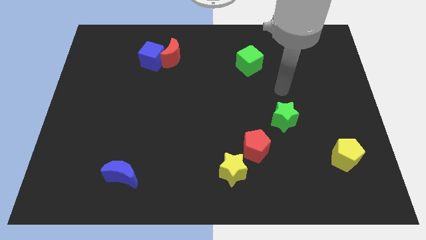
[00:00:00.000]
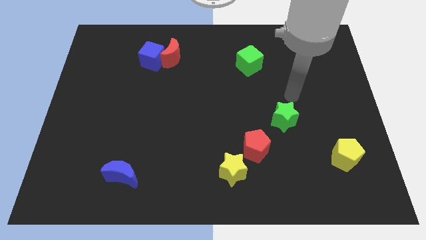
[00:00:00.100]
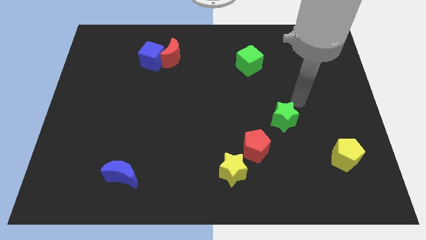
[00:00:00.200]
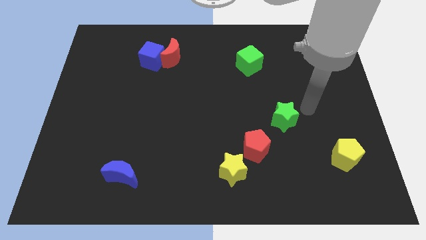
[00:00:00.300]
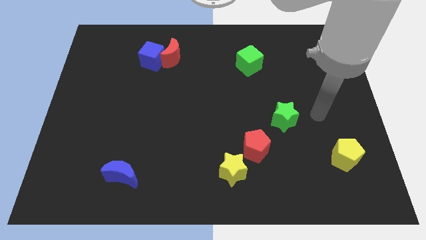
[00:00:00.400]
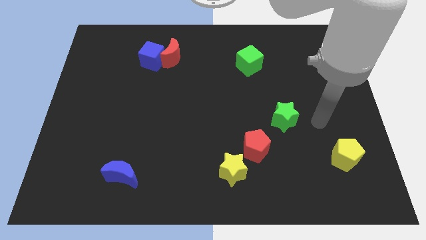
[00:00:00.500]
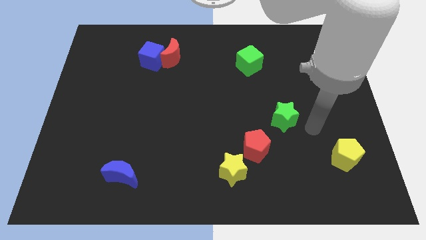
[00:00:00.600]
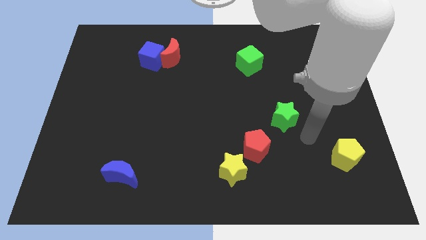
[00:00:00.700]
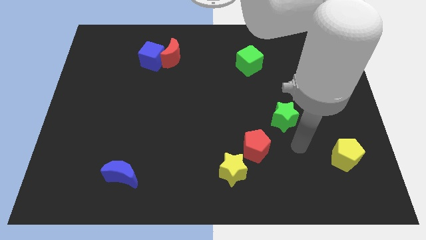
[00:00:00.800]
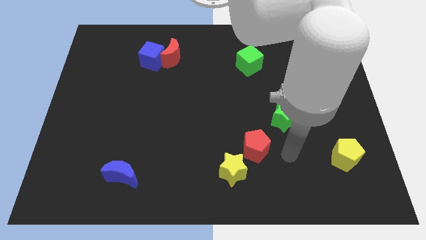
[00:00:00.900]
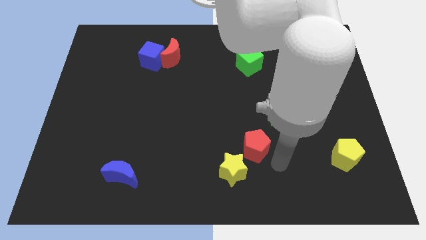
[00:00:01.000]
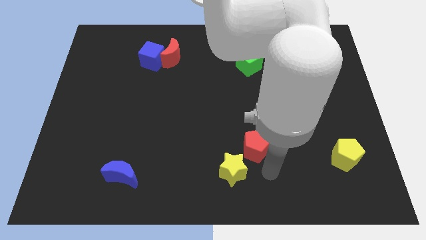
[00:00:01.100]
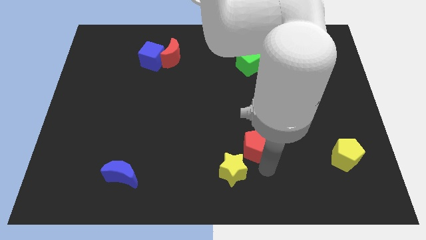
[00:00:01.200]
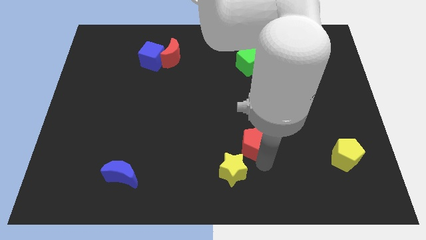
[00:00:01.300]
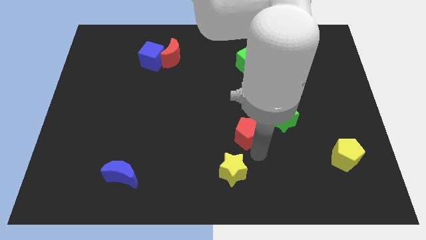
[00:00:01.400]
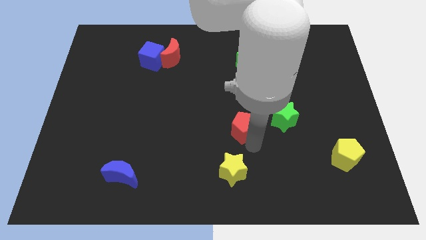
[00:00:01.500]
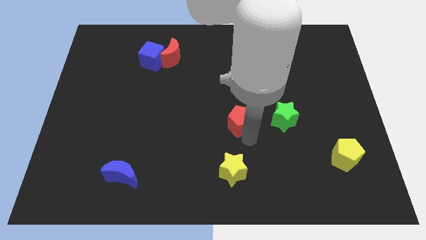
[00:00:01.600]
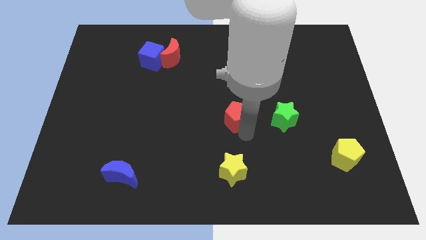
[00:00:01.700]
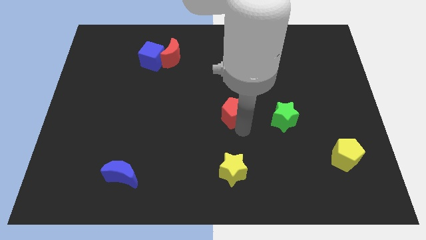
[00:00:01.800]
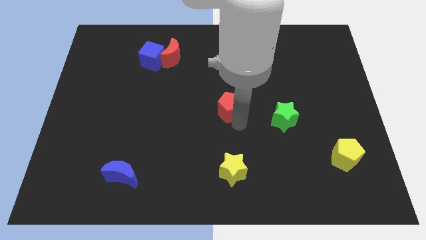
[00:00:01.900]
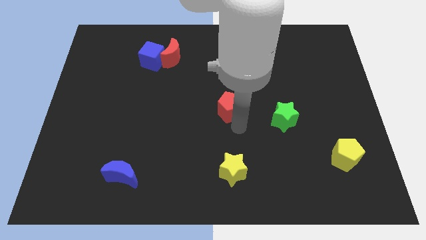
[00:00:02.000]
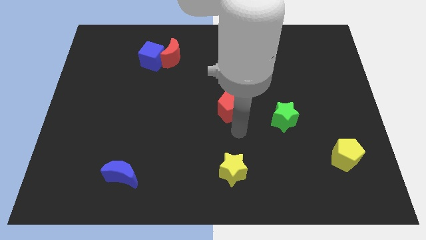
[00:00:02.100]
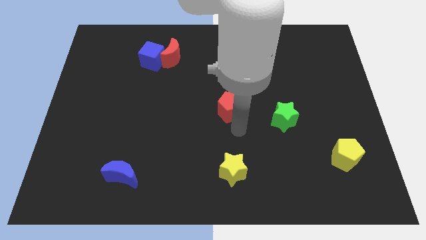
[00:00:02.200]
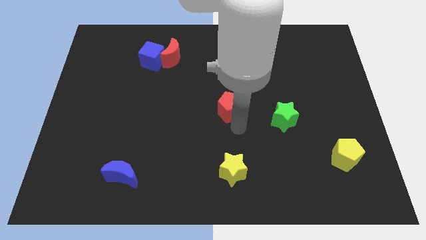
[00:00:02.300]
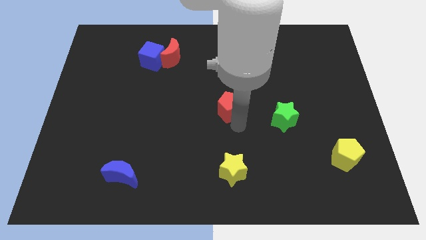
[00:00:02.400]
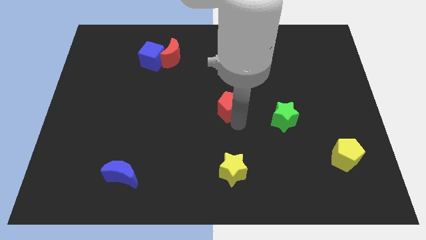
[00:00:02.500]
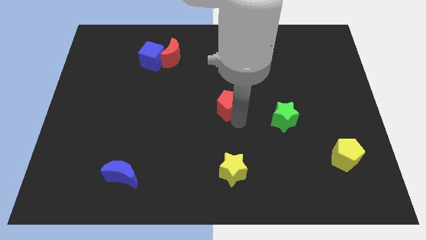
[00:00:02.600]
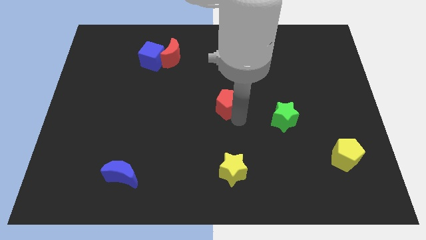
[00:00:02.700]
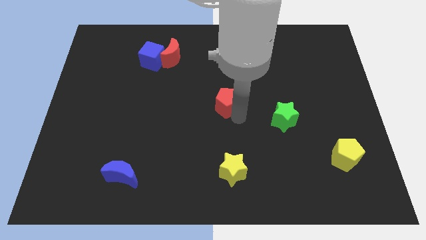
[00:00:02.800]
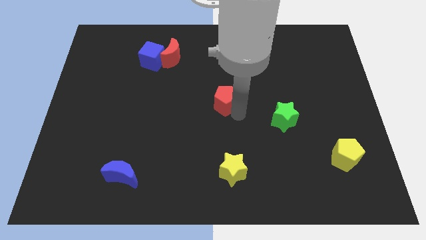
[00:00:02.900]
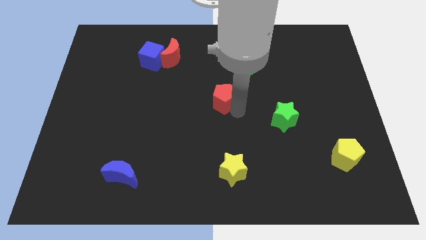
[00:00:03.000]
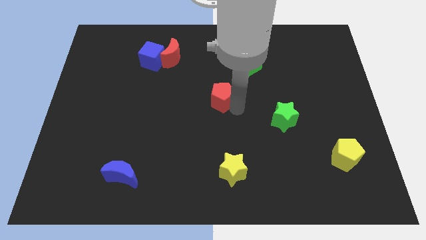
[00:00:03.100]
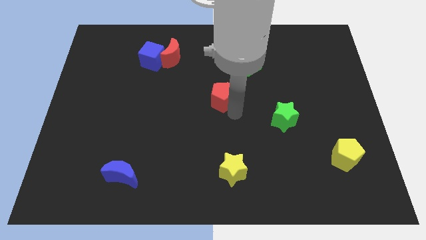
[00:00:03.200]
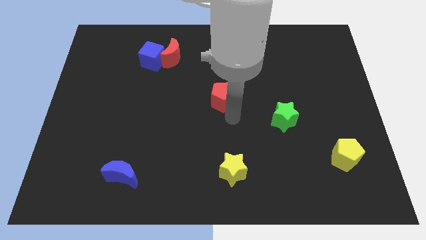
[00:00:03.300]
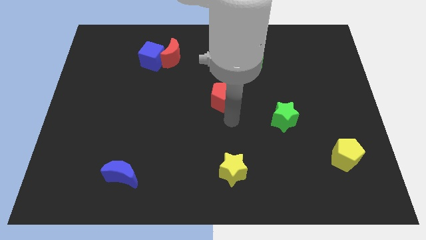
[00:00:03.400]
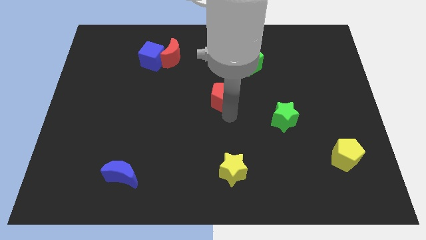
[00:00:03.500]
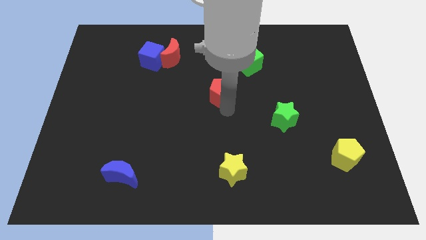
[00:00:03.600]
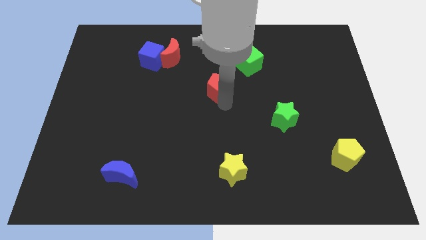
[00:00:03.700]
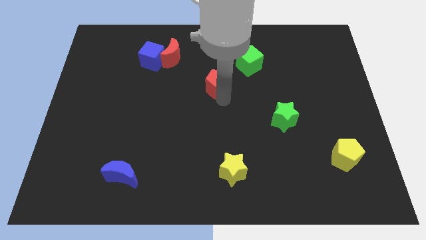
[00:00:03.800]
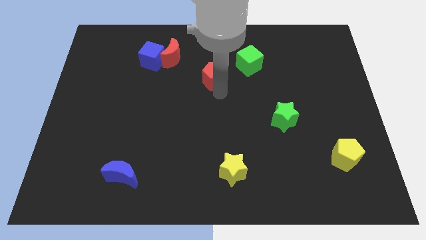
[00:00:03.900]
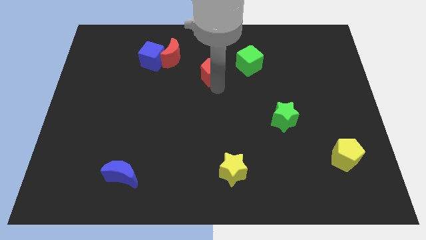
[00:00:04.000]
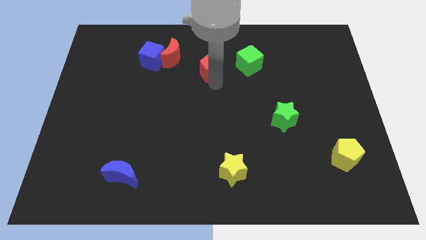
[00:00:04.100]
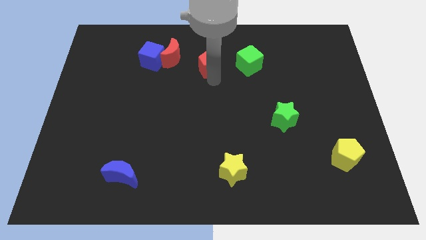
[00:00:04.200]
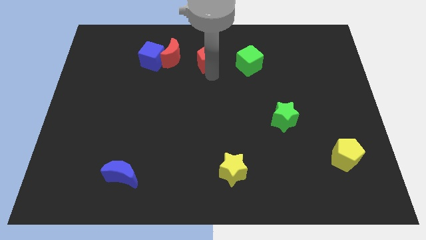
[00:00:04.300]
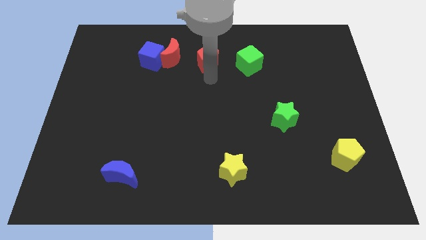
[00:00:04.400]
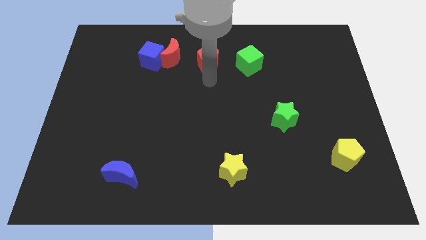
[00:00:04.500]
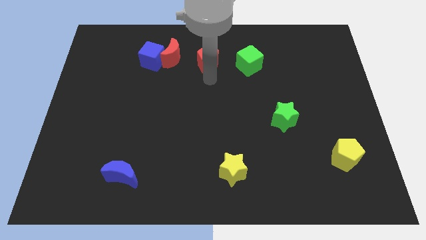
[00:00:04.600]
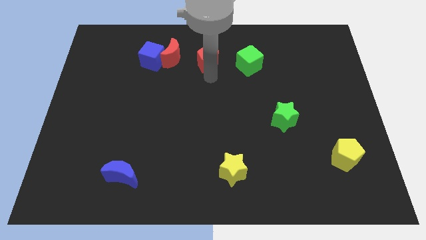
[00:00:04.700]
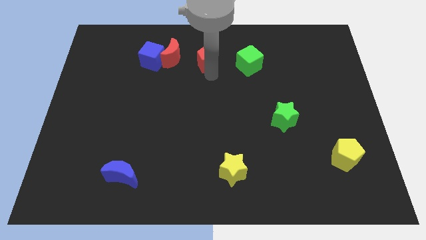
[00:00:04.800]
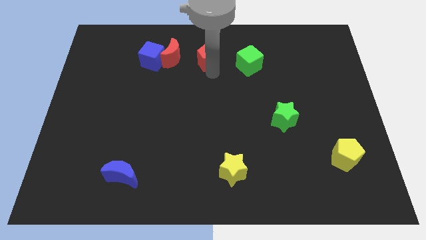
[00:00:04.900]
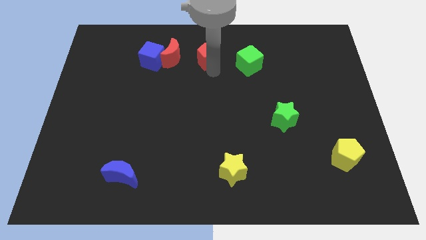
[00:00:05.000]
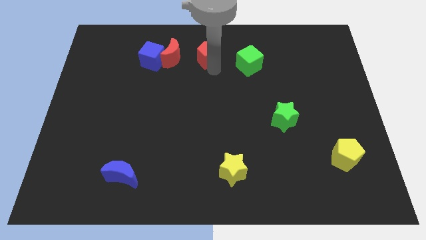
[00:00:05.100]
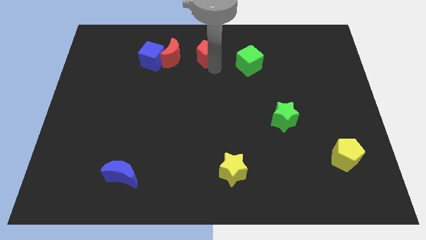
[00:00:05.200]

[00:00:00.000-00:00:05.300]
move the red pentagon to the towards your base

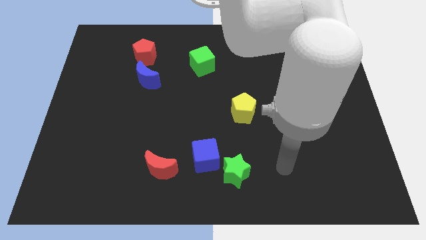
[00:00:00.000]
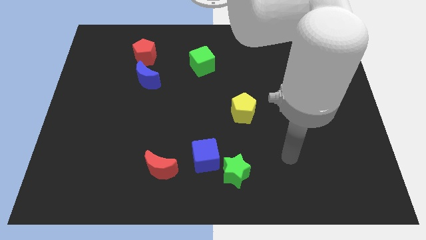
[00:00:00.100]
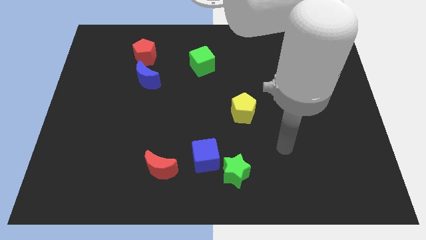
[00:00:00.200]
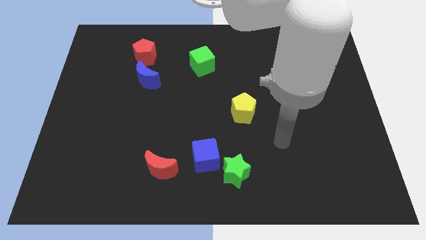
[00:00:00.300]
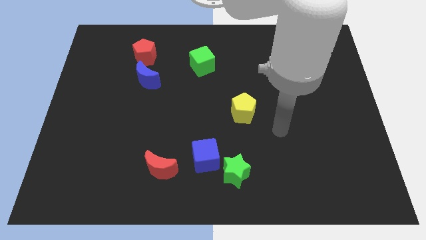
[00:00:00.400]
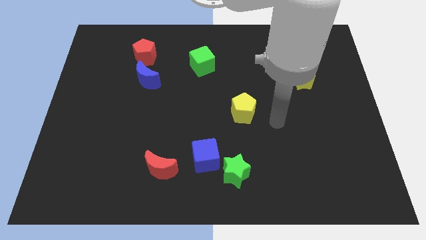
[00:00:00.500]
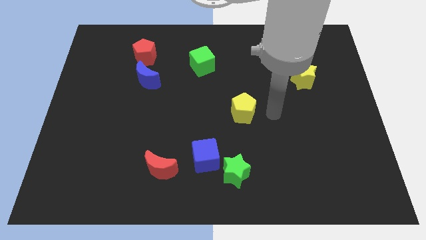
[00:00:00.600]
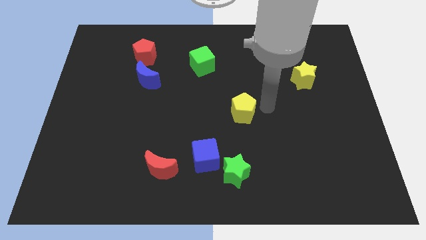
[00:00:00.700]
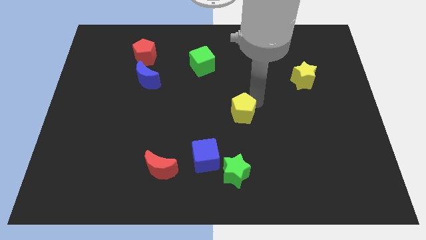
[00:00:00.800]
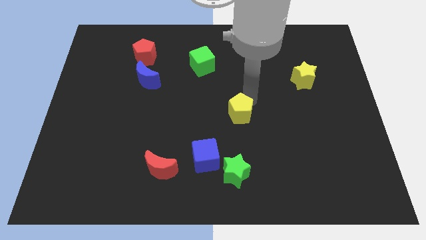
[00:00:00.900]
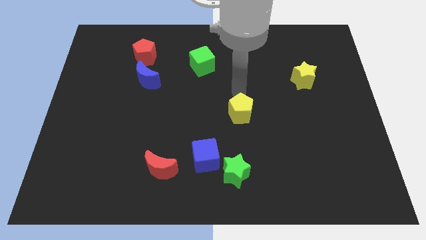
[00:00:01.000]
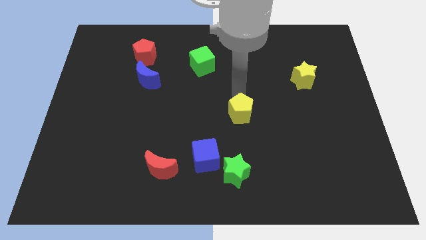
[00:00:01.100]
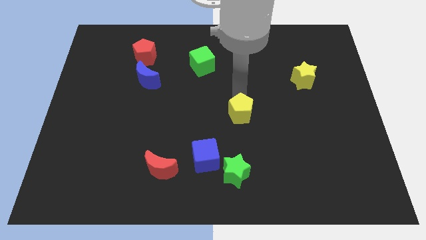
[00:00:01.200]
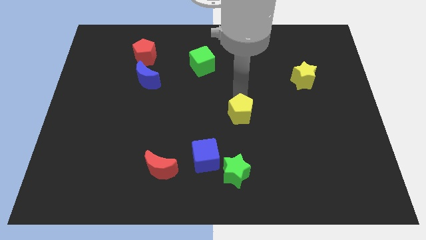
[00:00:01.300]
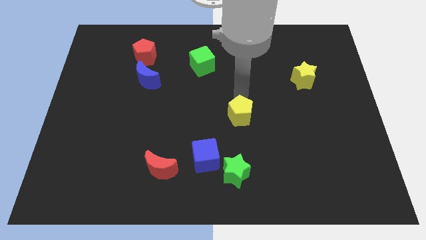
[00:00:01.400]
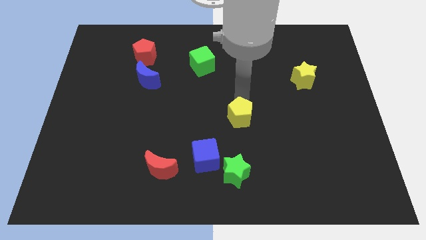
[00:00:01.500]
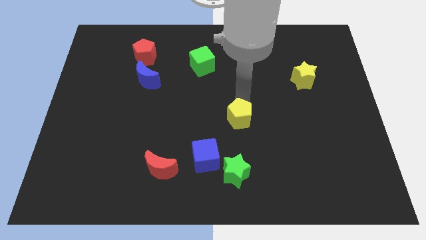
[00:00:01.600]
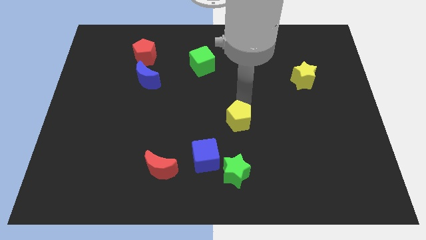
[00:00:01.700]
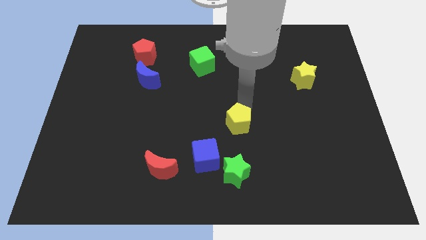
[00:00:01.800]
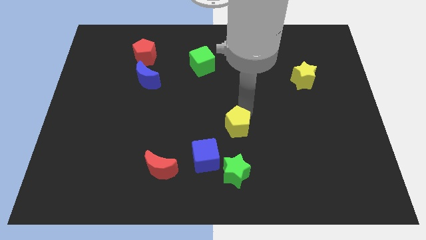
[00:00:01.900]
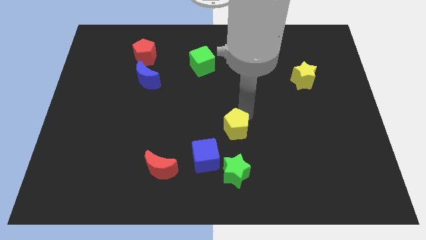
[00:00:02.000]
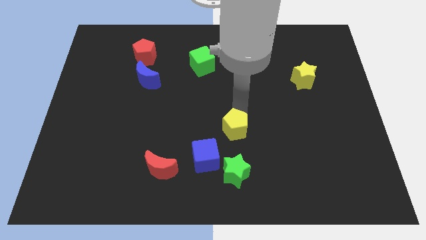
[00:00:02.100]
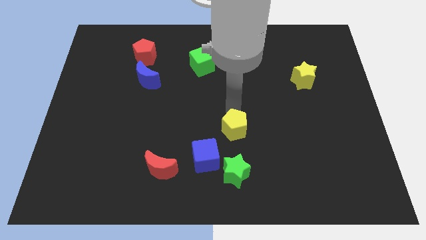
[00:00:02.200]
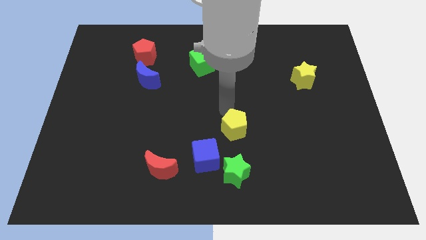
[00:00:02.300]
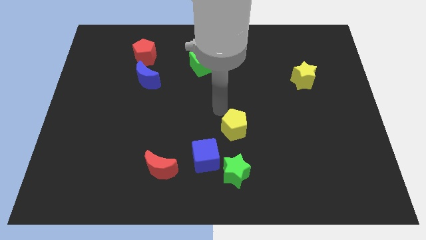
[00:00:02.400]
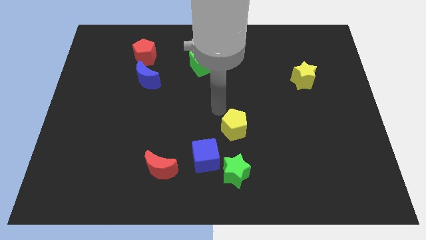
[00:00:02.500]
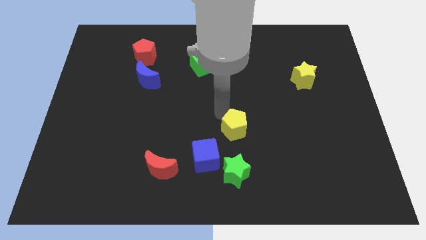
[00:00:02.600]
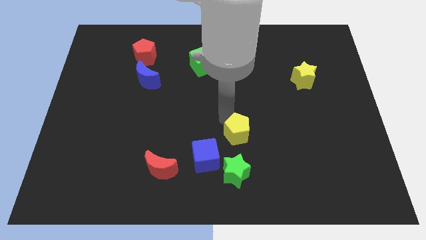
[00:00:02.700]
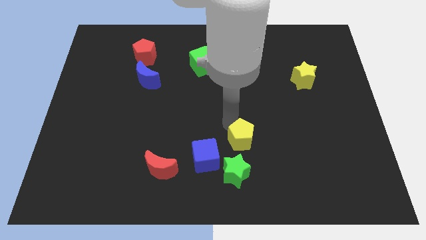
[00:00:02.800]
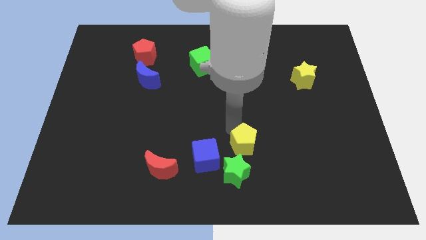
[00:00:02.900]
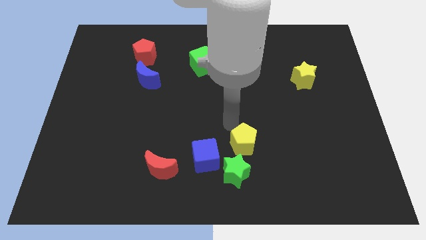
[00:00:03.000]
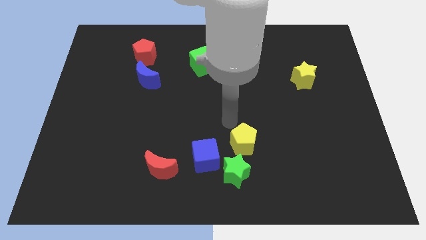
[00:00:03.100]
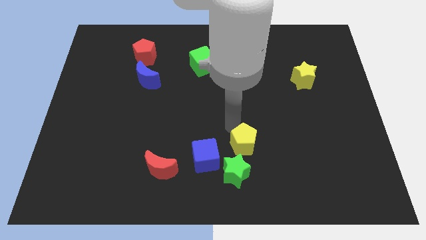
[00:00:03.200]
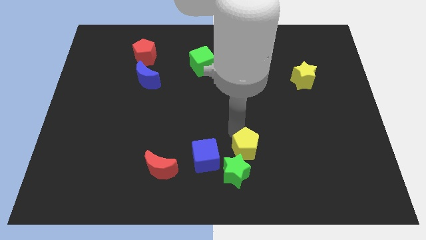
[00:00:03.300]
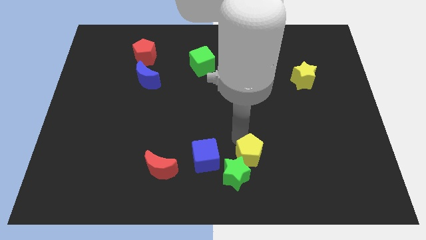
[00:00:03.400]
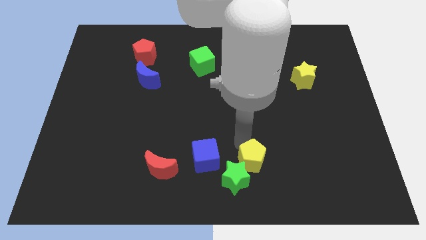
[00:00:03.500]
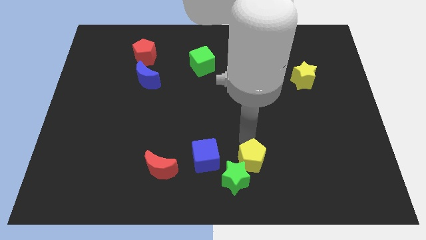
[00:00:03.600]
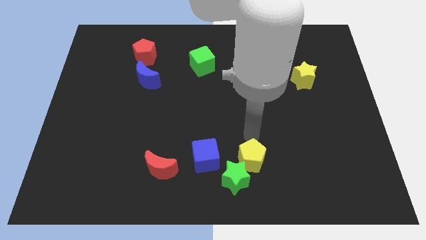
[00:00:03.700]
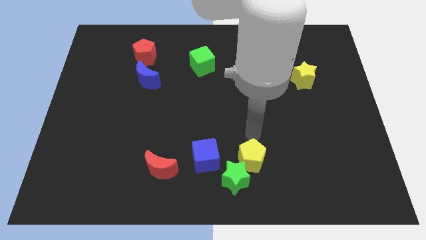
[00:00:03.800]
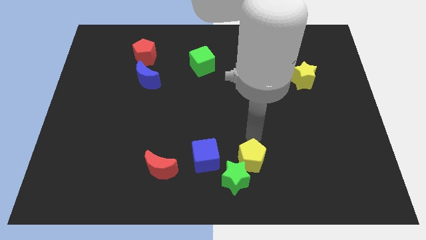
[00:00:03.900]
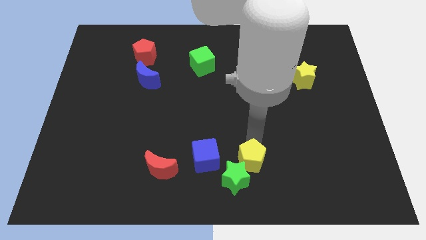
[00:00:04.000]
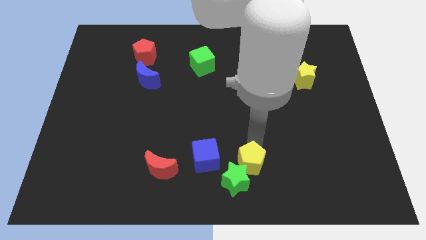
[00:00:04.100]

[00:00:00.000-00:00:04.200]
slide the yellow pentagon to the bottom side
